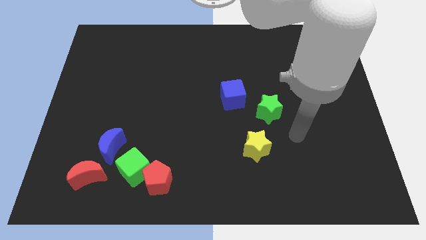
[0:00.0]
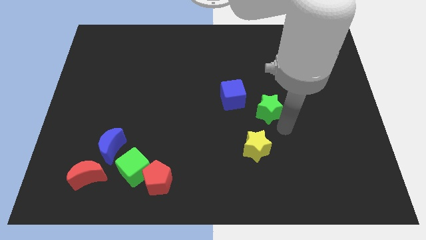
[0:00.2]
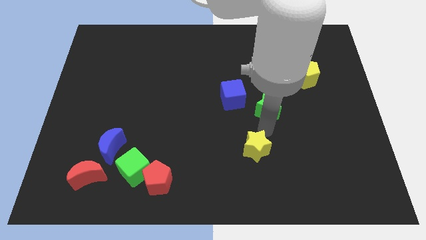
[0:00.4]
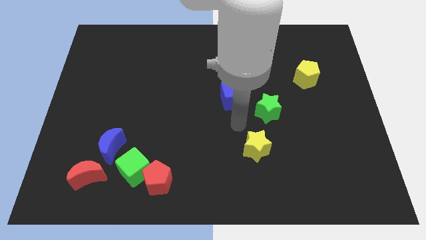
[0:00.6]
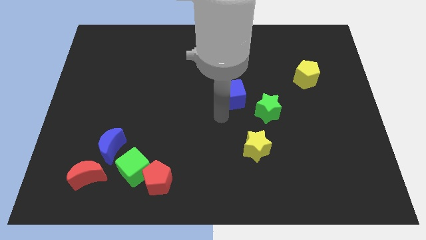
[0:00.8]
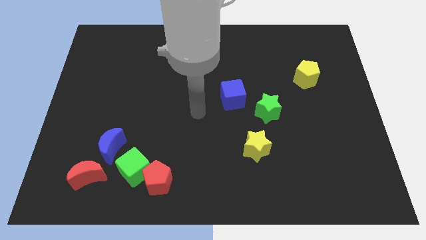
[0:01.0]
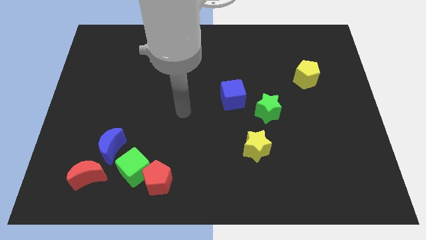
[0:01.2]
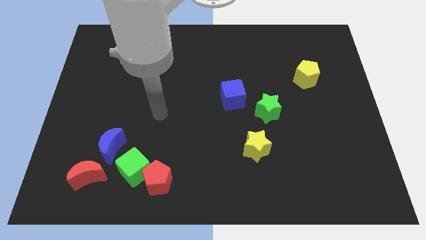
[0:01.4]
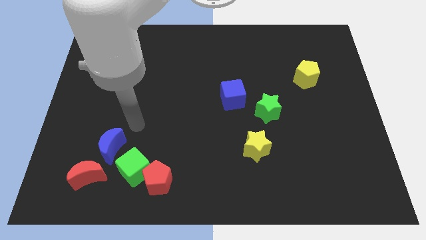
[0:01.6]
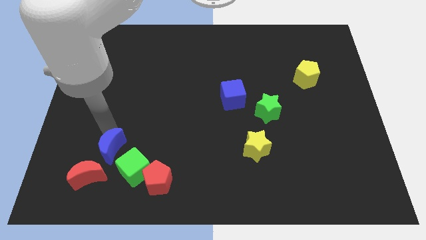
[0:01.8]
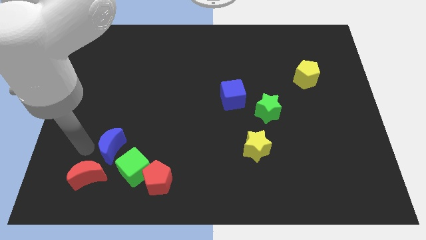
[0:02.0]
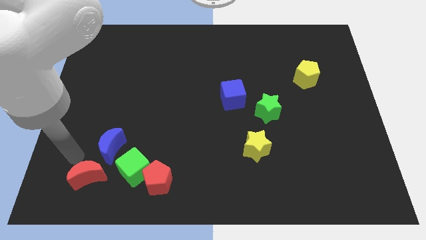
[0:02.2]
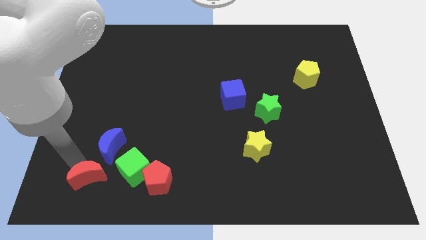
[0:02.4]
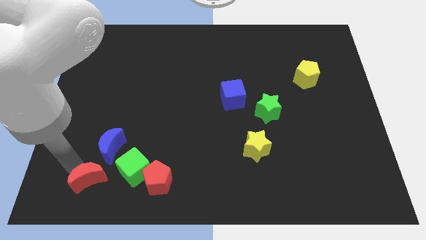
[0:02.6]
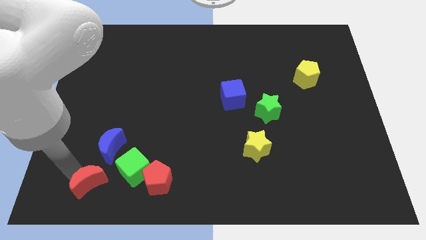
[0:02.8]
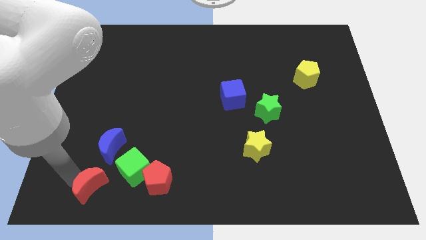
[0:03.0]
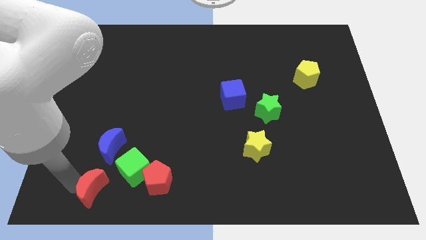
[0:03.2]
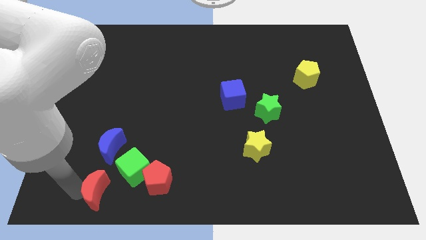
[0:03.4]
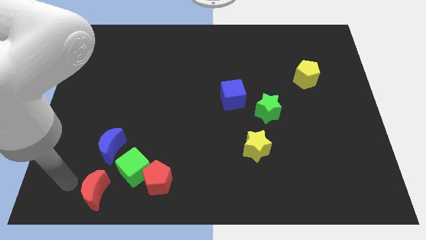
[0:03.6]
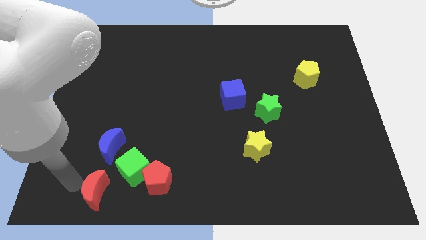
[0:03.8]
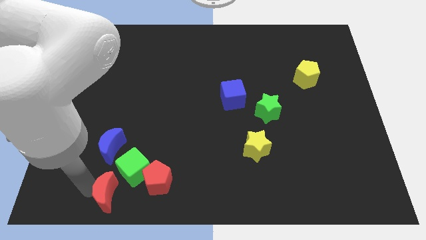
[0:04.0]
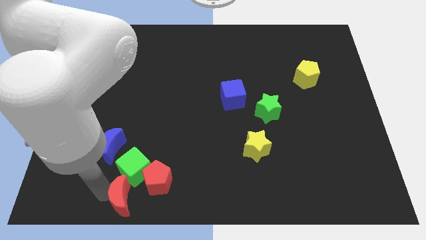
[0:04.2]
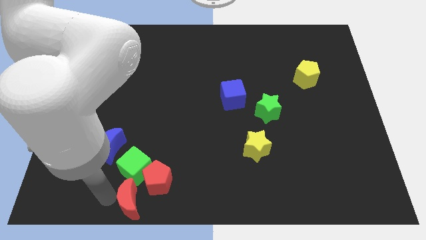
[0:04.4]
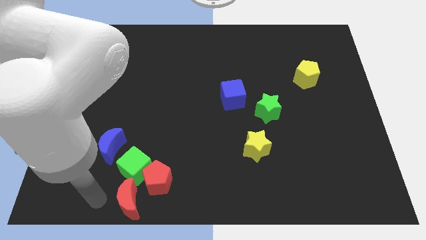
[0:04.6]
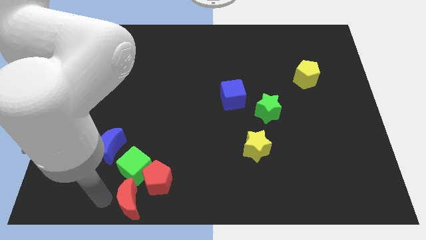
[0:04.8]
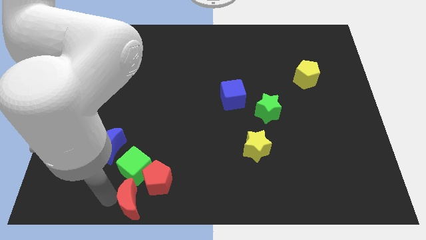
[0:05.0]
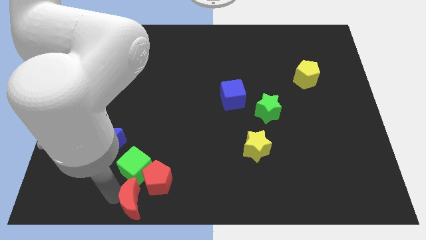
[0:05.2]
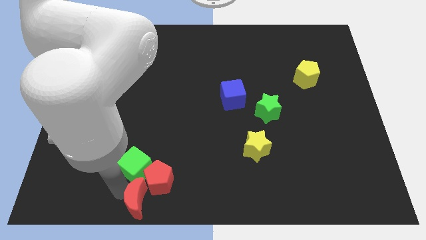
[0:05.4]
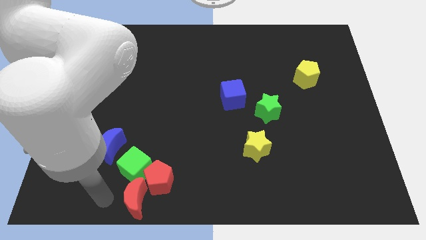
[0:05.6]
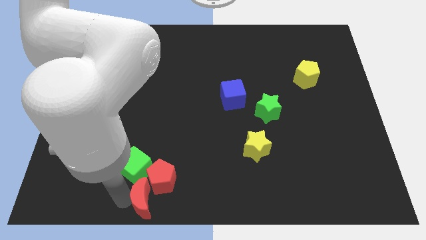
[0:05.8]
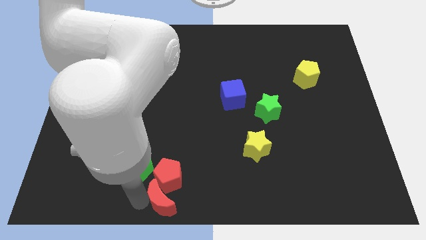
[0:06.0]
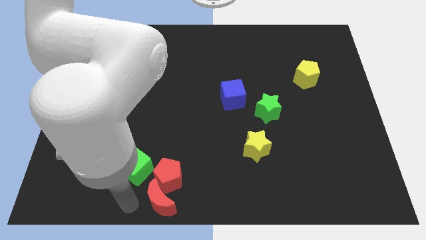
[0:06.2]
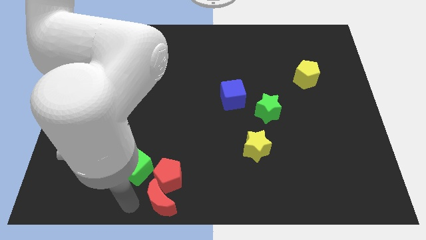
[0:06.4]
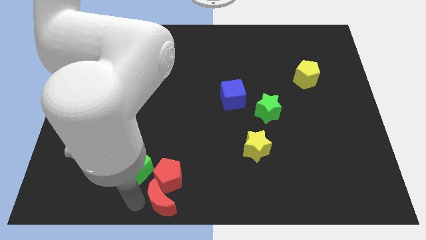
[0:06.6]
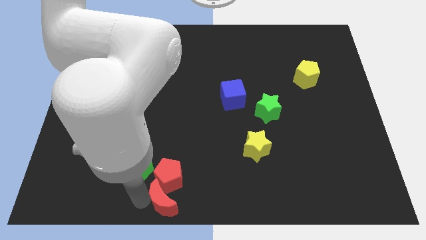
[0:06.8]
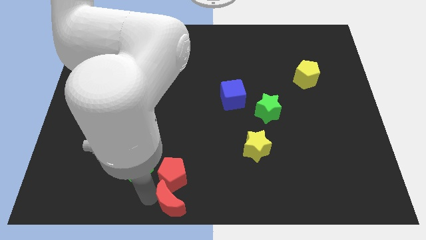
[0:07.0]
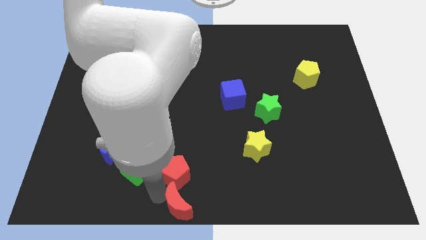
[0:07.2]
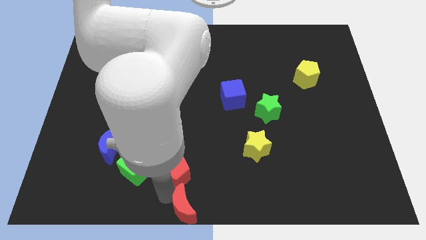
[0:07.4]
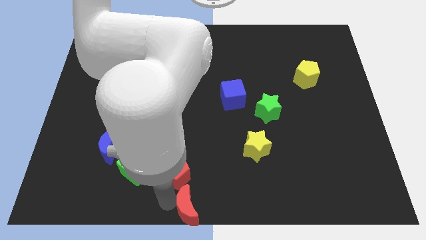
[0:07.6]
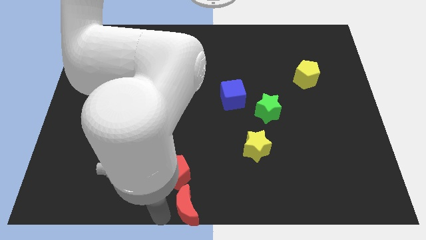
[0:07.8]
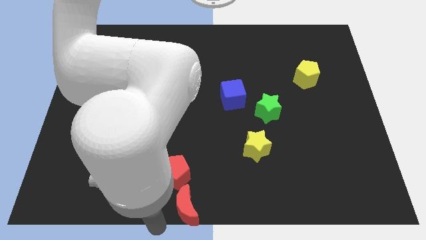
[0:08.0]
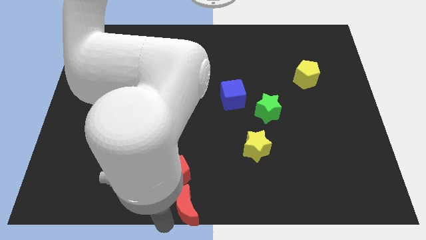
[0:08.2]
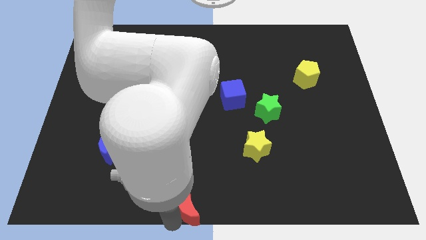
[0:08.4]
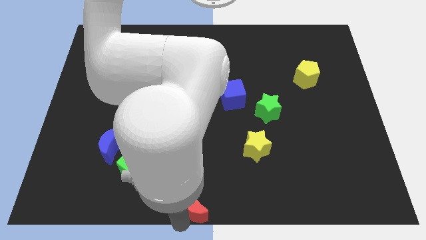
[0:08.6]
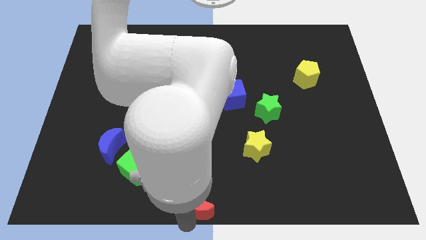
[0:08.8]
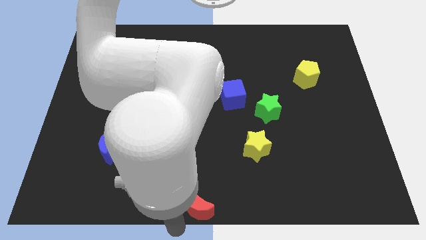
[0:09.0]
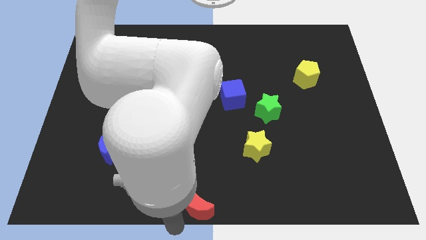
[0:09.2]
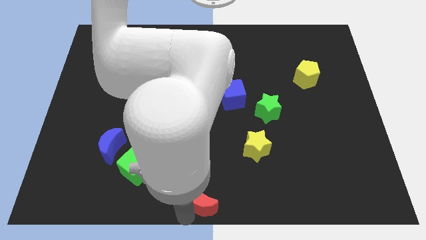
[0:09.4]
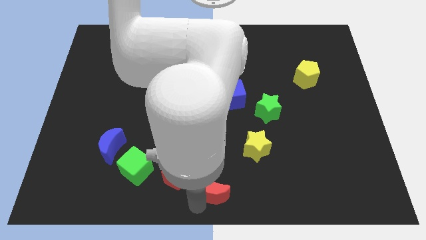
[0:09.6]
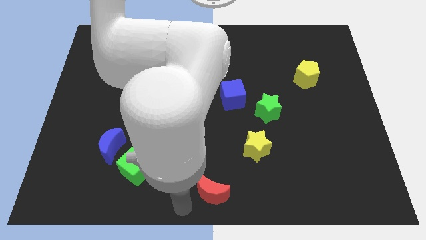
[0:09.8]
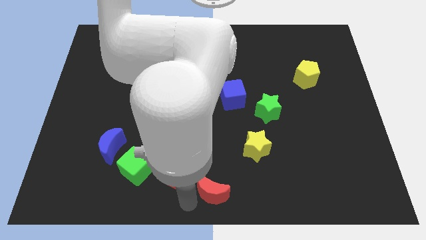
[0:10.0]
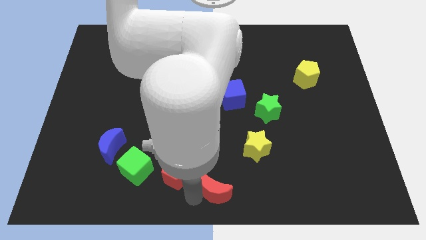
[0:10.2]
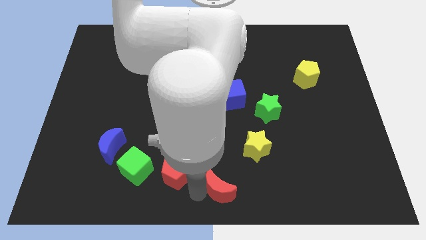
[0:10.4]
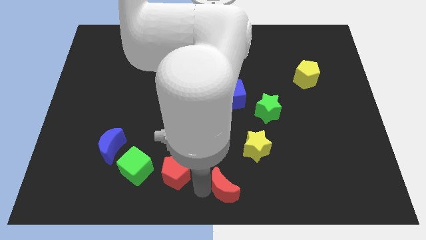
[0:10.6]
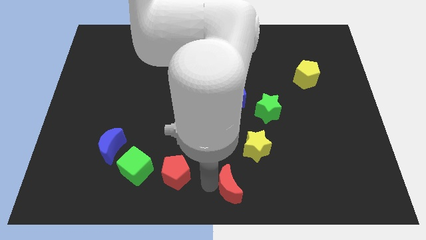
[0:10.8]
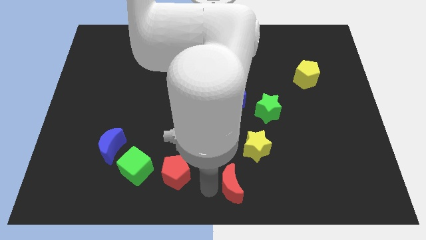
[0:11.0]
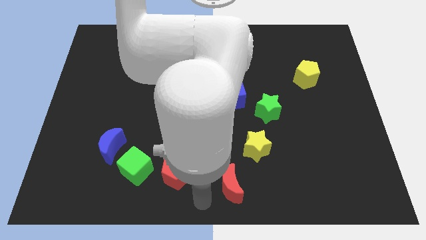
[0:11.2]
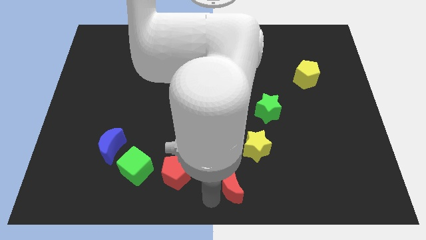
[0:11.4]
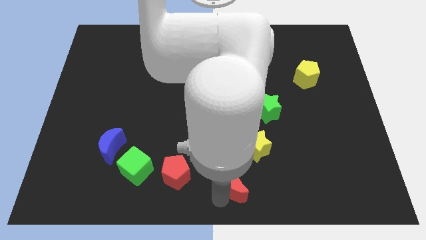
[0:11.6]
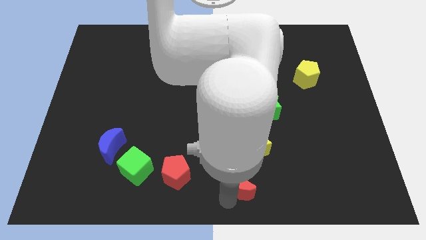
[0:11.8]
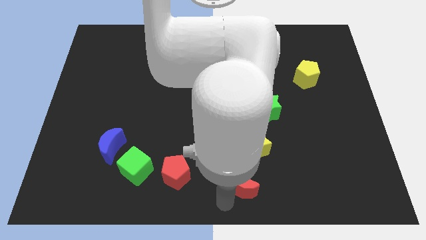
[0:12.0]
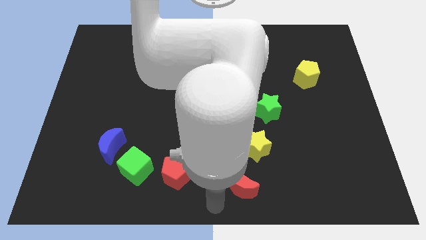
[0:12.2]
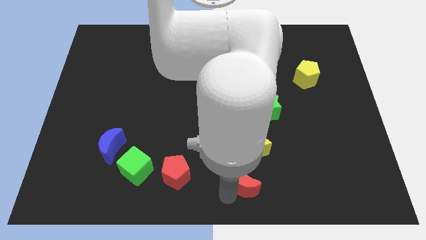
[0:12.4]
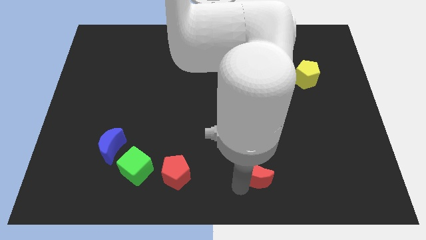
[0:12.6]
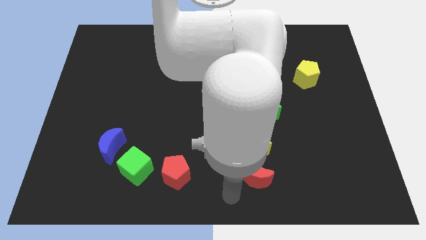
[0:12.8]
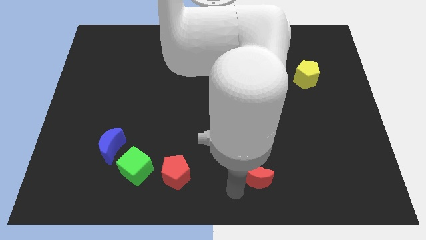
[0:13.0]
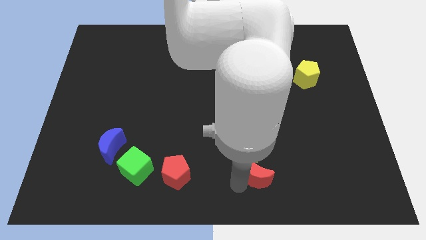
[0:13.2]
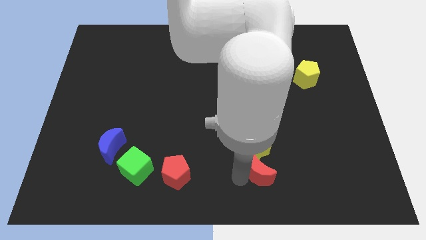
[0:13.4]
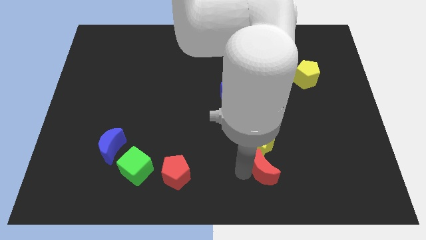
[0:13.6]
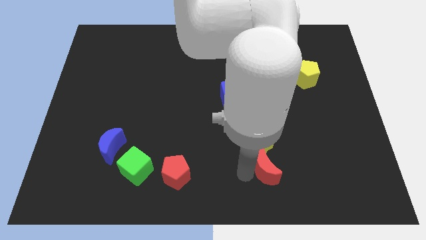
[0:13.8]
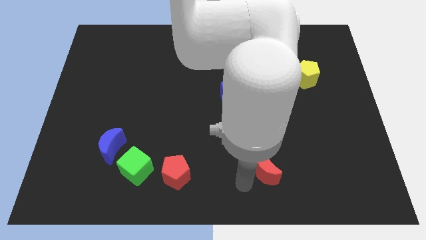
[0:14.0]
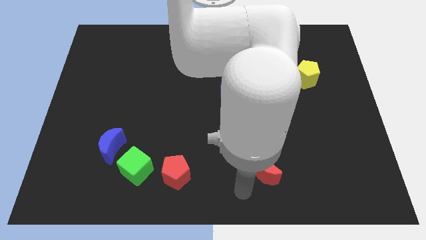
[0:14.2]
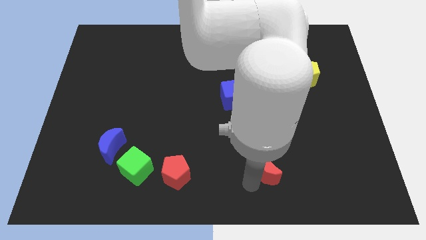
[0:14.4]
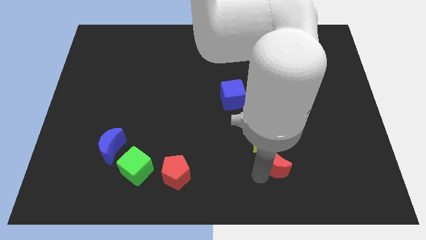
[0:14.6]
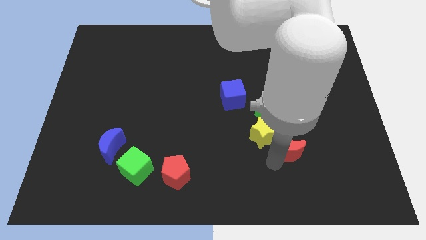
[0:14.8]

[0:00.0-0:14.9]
move the red moon to the right side of the yellow star
